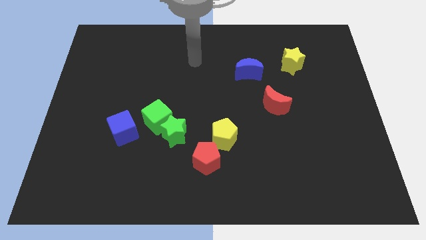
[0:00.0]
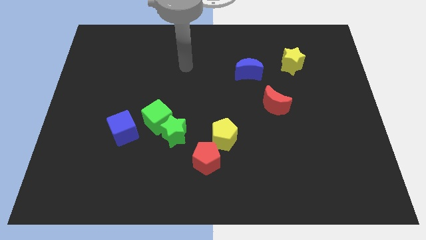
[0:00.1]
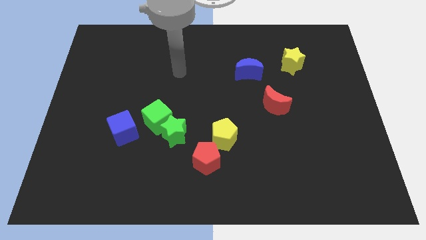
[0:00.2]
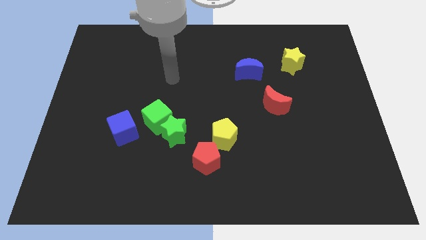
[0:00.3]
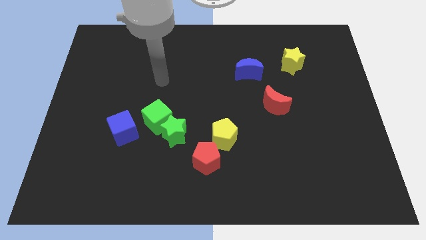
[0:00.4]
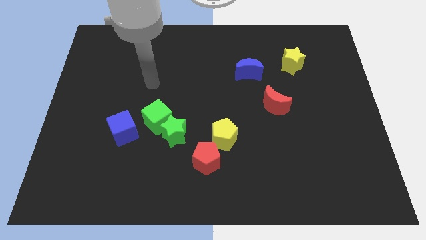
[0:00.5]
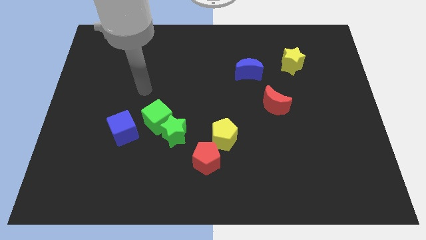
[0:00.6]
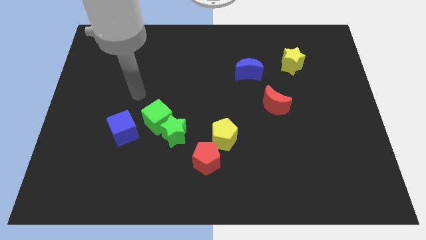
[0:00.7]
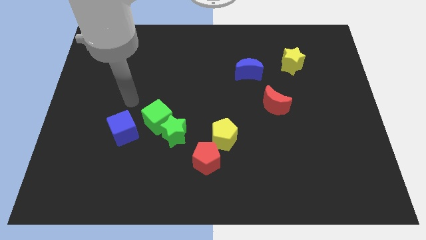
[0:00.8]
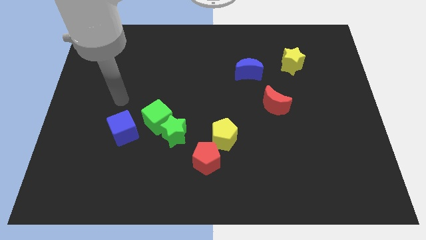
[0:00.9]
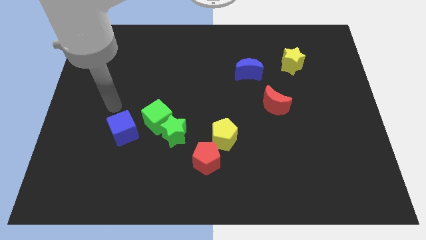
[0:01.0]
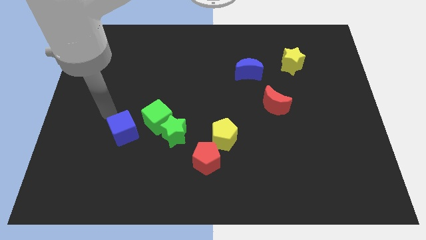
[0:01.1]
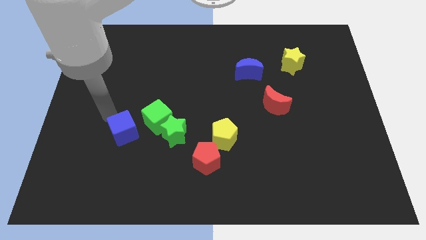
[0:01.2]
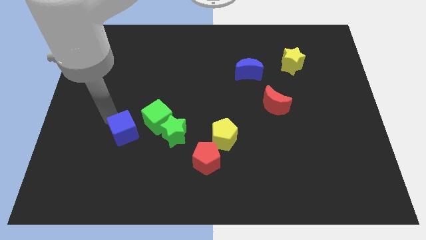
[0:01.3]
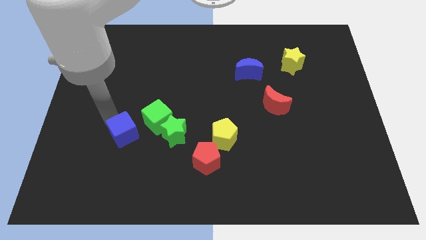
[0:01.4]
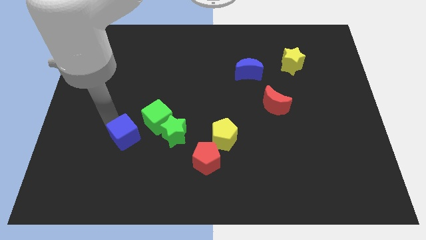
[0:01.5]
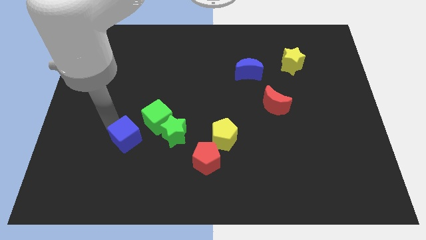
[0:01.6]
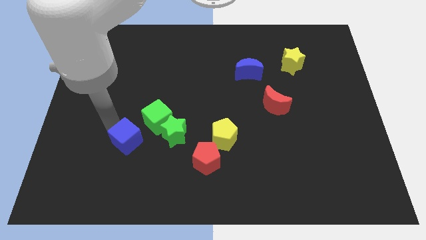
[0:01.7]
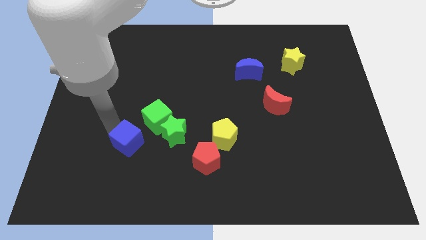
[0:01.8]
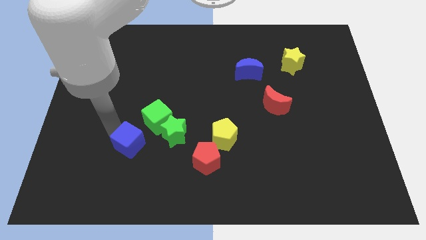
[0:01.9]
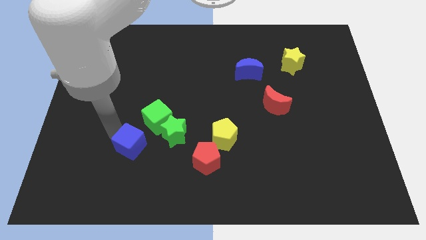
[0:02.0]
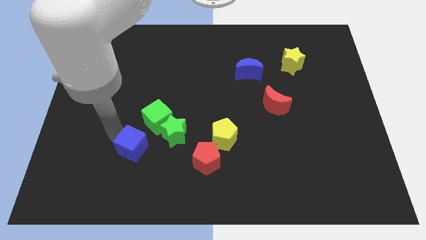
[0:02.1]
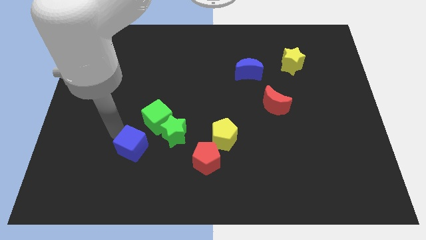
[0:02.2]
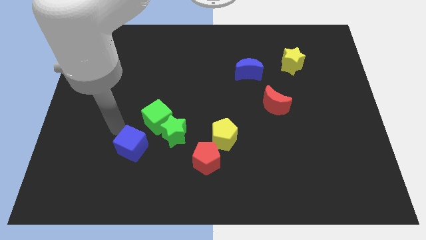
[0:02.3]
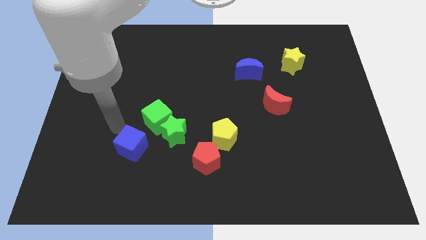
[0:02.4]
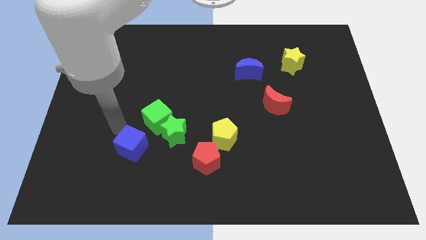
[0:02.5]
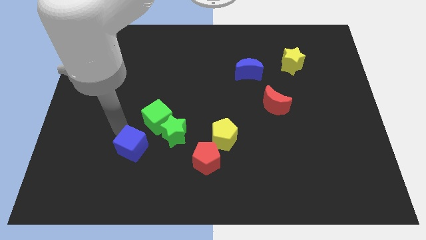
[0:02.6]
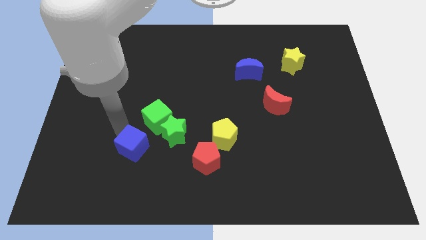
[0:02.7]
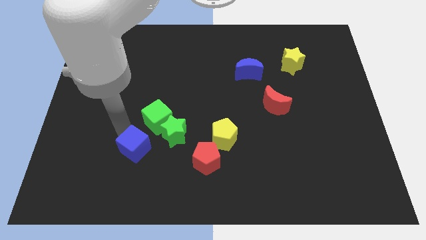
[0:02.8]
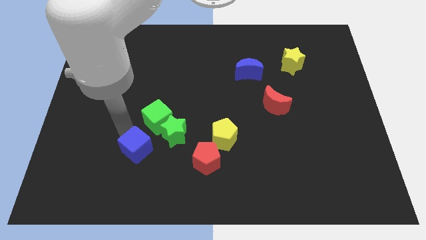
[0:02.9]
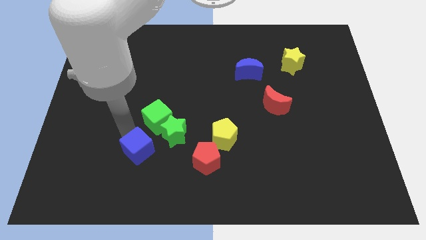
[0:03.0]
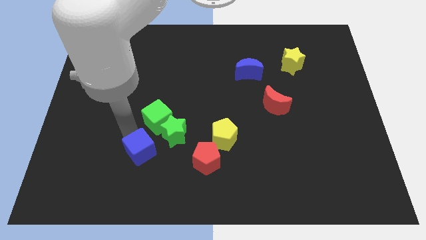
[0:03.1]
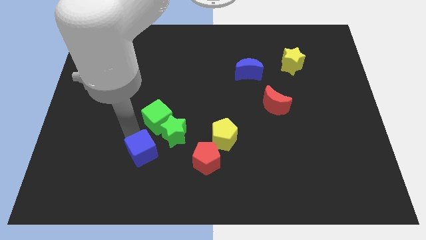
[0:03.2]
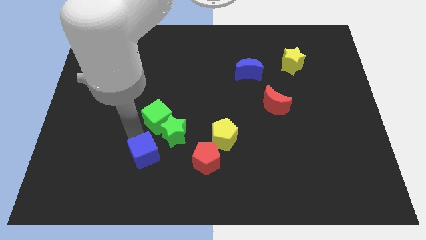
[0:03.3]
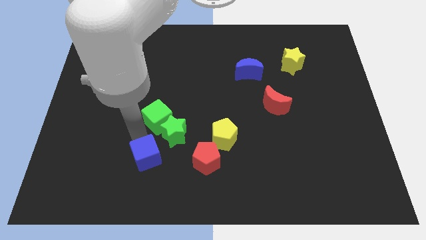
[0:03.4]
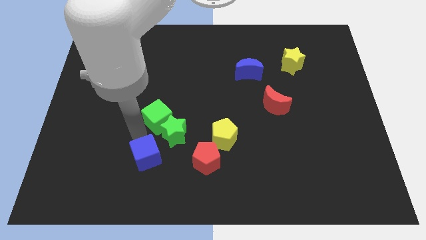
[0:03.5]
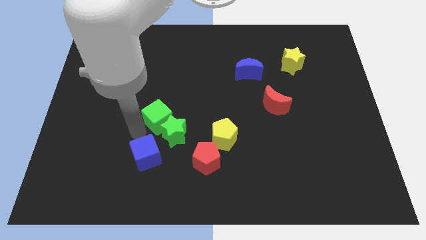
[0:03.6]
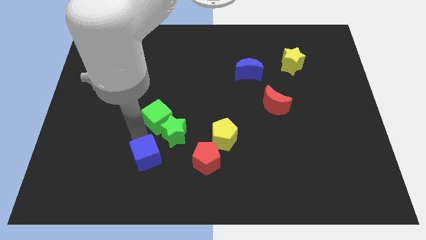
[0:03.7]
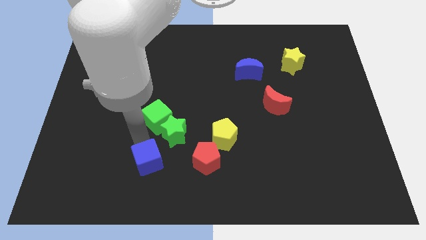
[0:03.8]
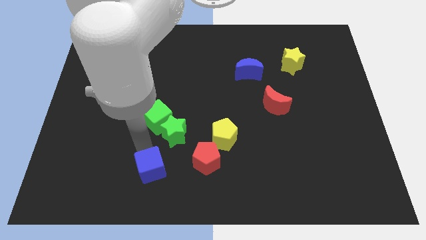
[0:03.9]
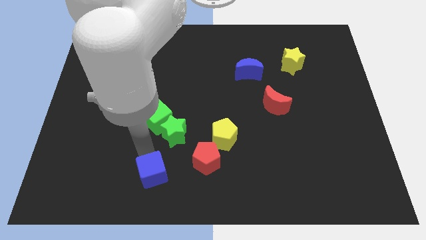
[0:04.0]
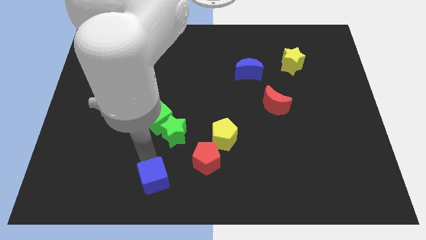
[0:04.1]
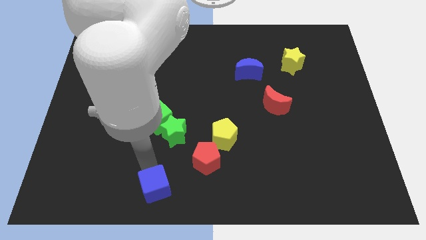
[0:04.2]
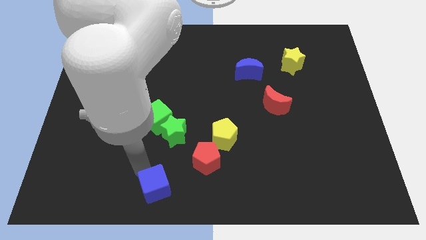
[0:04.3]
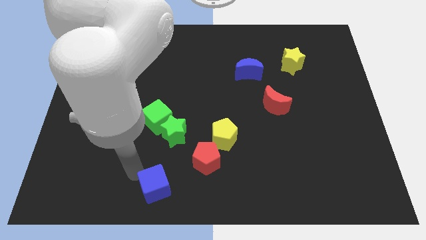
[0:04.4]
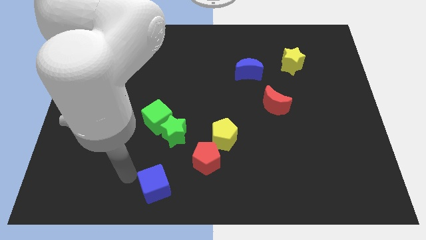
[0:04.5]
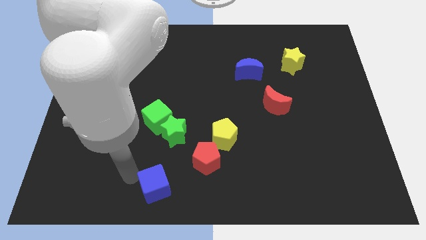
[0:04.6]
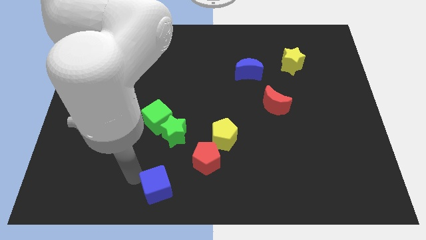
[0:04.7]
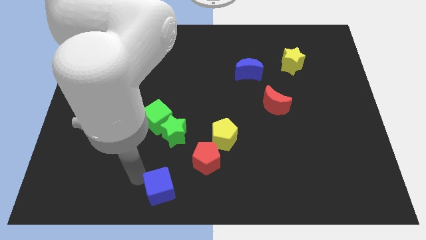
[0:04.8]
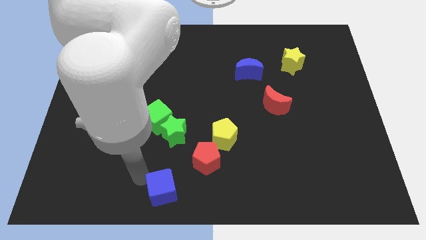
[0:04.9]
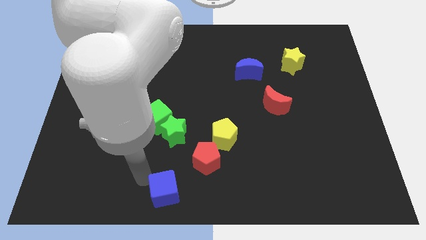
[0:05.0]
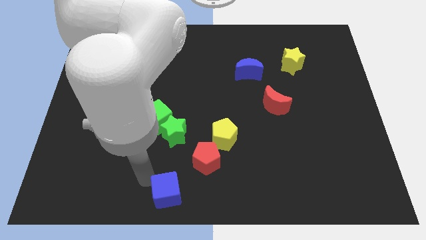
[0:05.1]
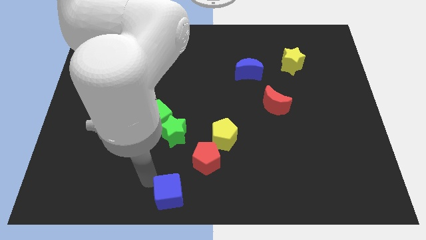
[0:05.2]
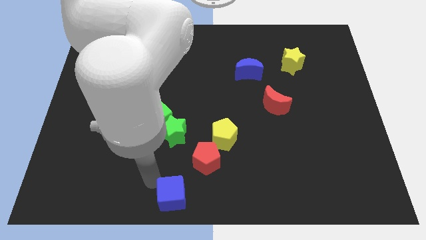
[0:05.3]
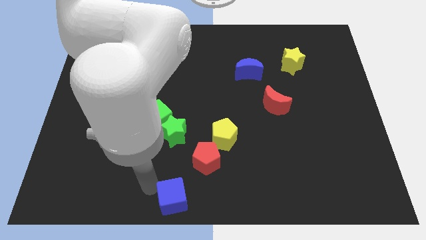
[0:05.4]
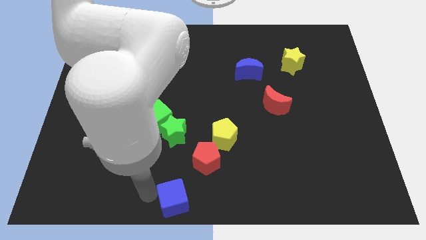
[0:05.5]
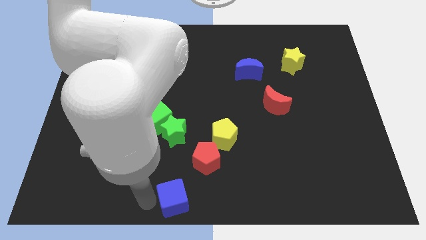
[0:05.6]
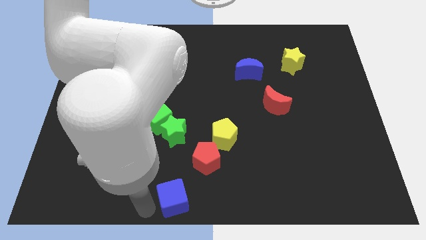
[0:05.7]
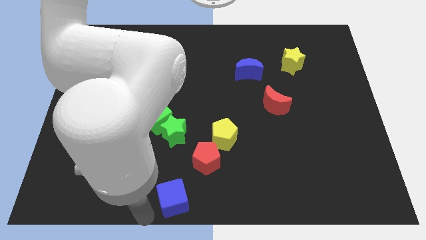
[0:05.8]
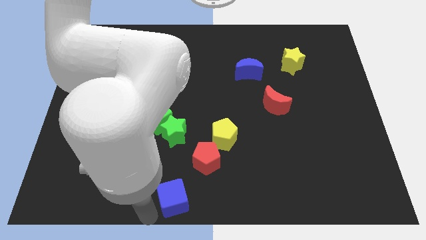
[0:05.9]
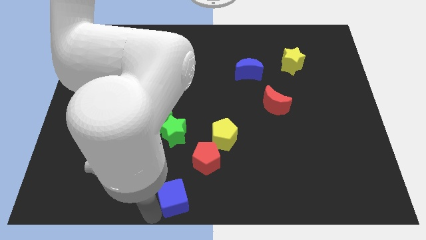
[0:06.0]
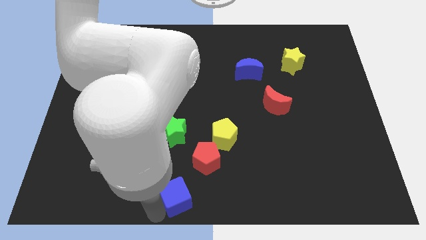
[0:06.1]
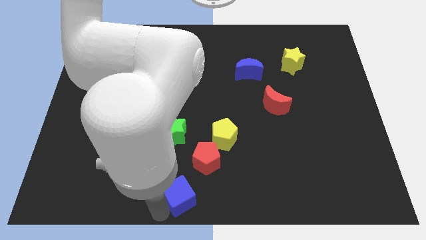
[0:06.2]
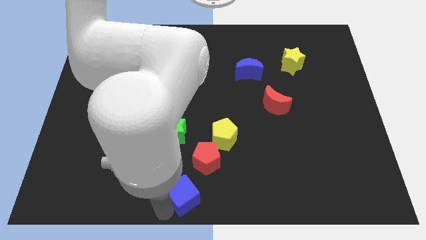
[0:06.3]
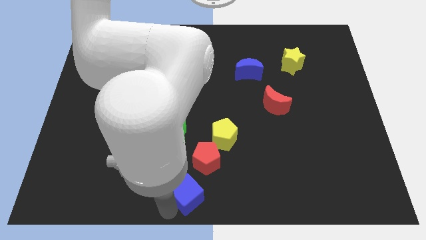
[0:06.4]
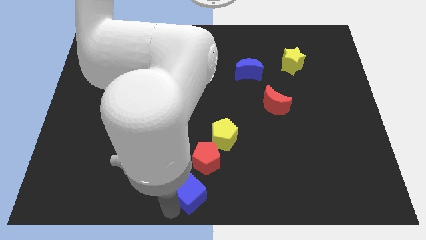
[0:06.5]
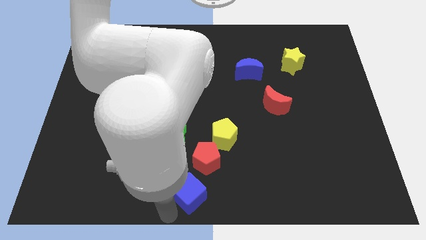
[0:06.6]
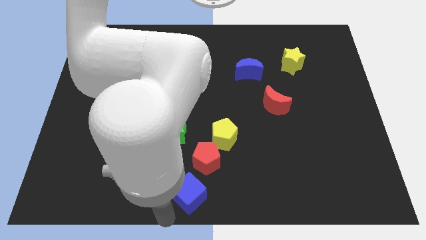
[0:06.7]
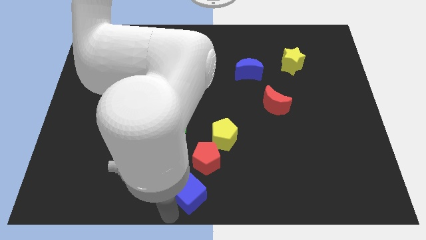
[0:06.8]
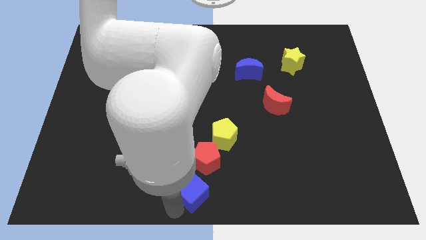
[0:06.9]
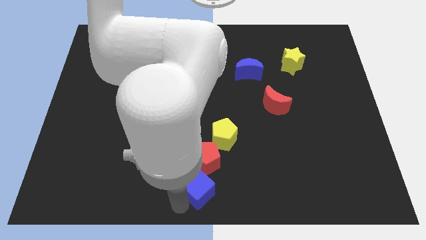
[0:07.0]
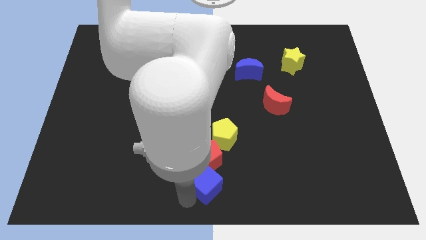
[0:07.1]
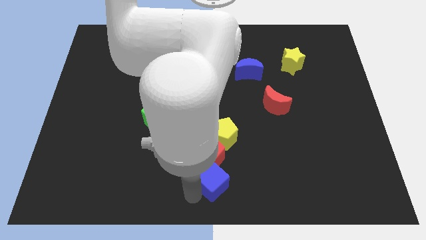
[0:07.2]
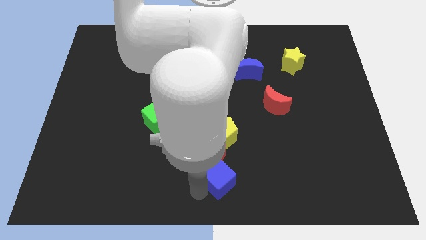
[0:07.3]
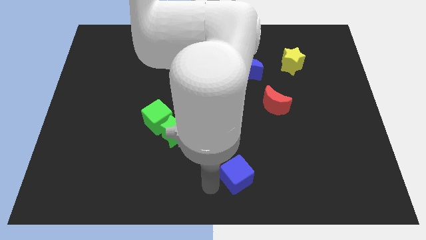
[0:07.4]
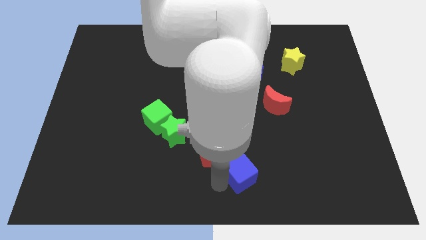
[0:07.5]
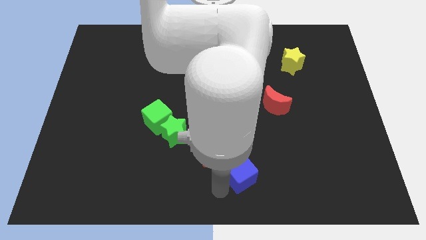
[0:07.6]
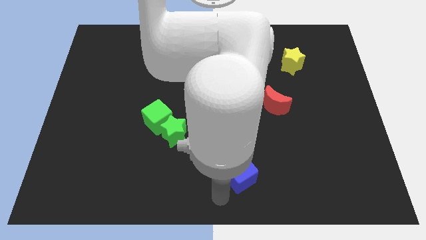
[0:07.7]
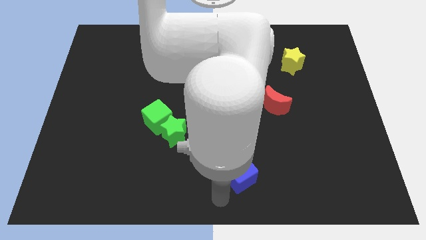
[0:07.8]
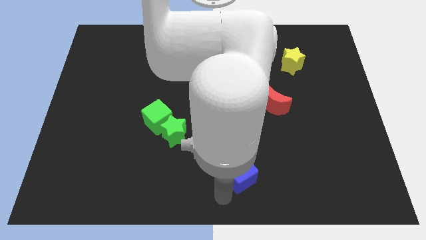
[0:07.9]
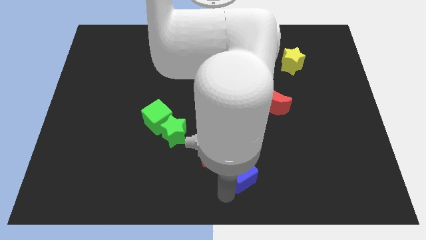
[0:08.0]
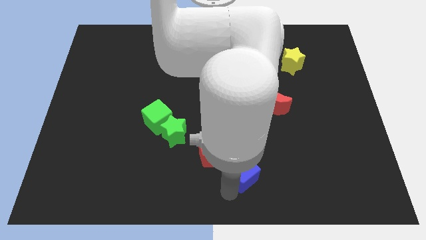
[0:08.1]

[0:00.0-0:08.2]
move the blue cube to the right of the red pentagon
